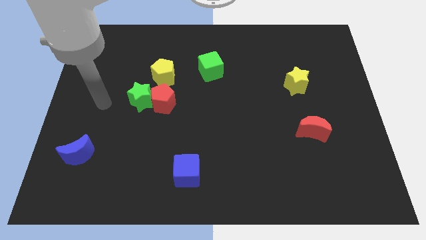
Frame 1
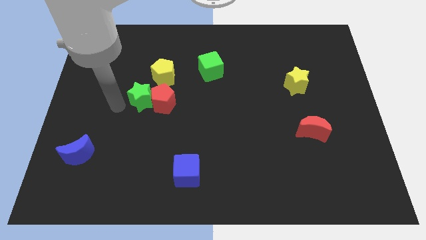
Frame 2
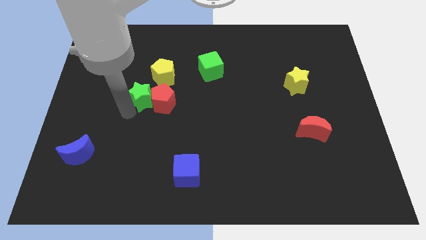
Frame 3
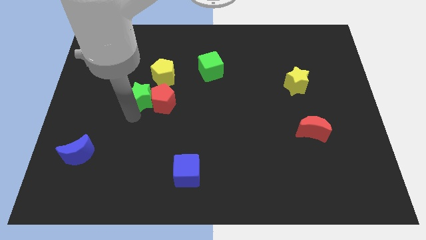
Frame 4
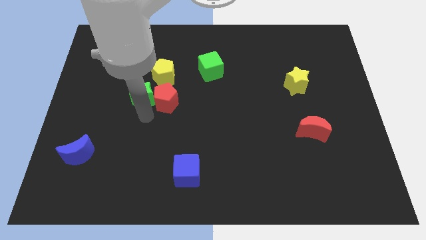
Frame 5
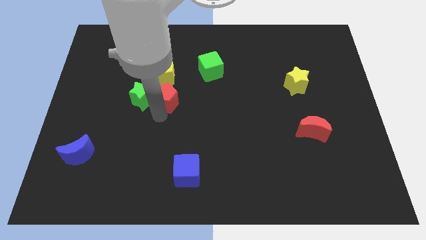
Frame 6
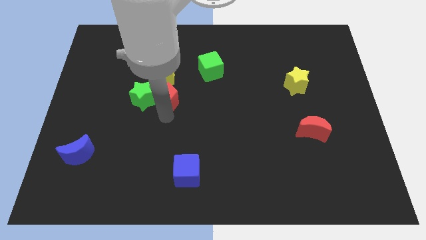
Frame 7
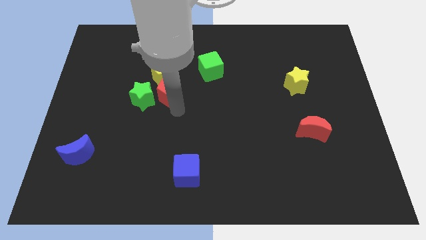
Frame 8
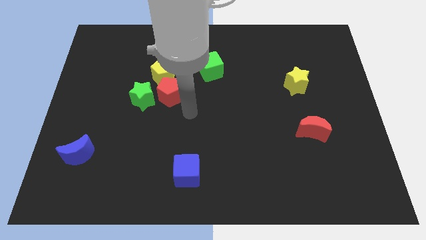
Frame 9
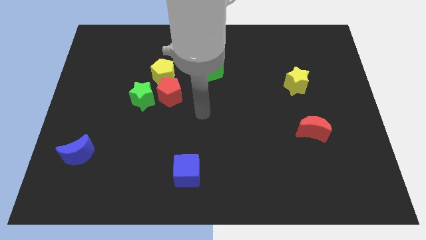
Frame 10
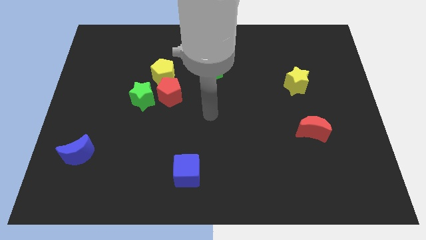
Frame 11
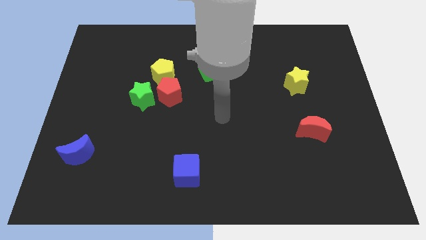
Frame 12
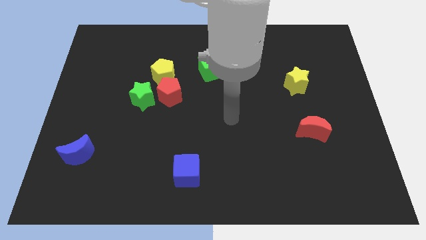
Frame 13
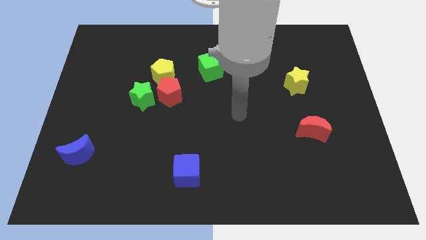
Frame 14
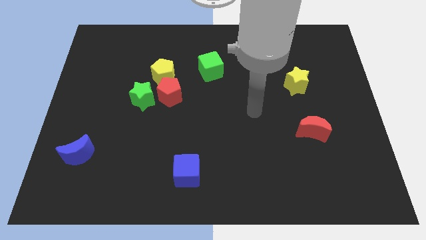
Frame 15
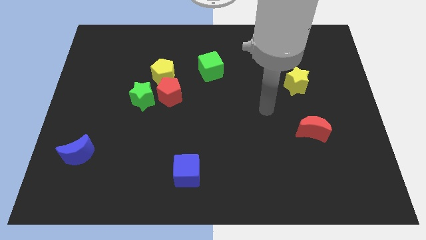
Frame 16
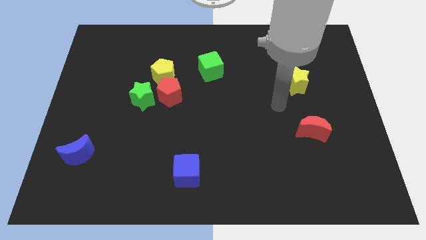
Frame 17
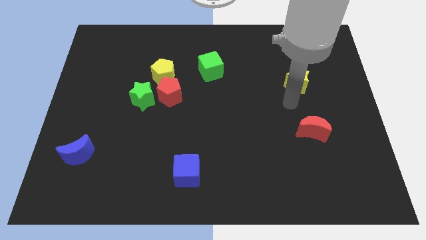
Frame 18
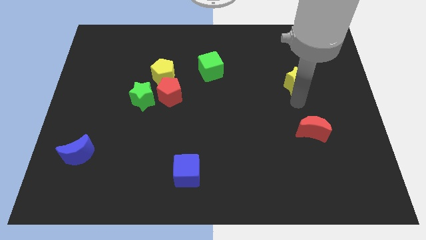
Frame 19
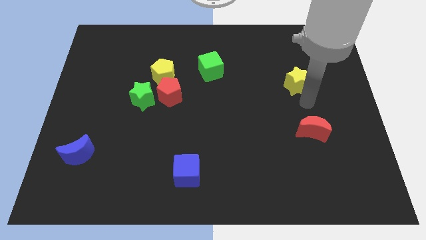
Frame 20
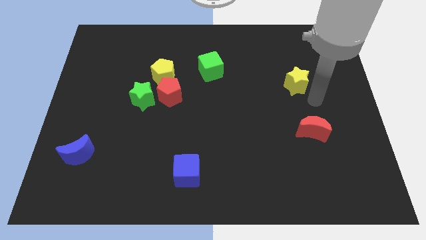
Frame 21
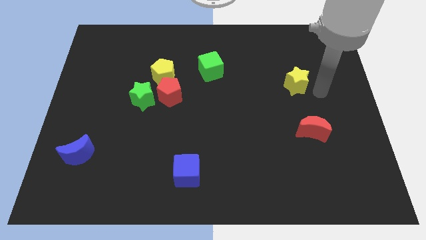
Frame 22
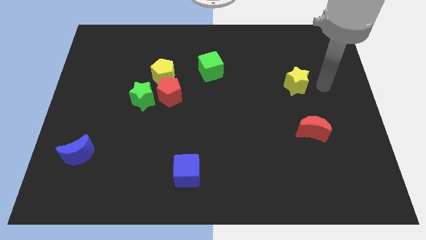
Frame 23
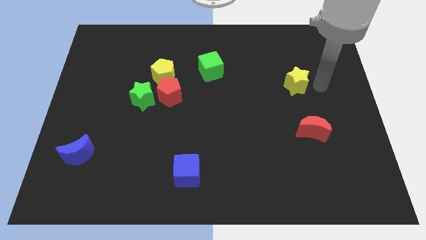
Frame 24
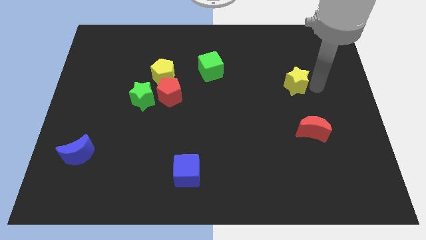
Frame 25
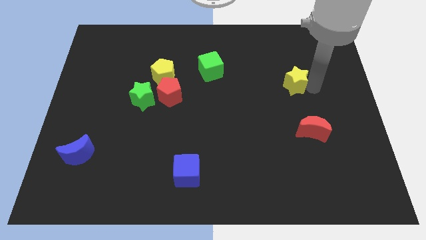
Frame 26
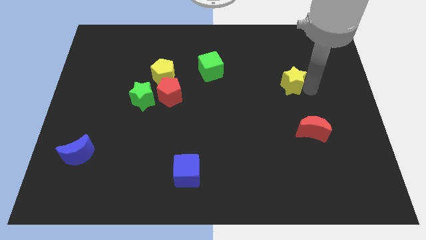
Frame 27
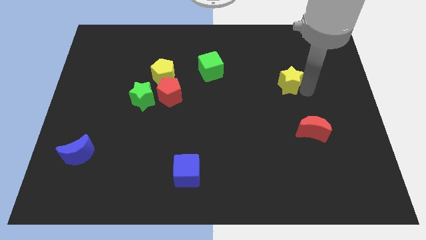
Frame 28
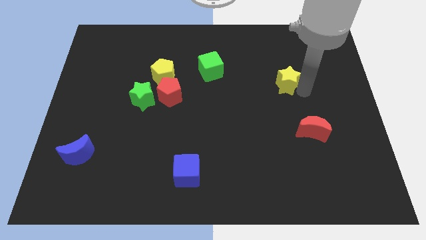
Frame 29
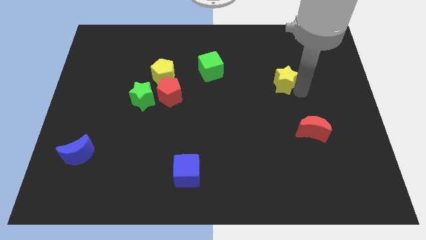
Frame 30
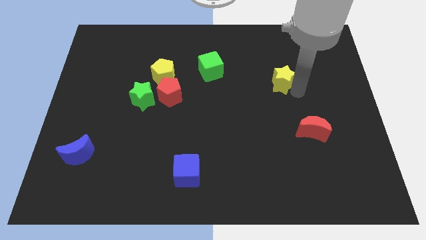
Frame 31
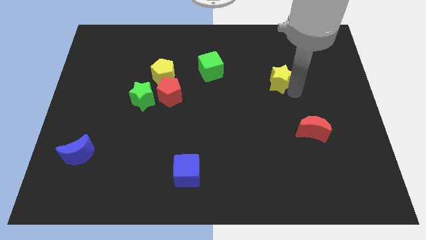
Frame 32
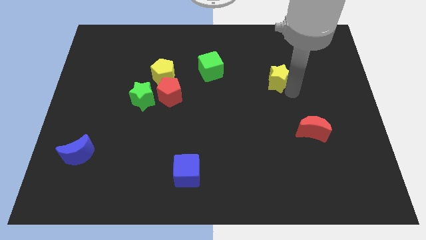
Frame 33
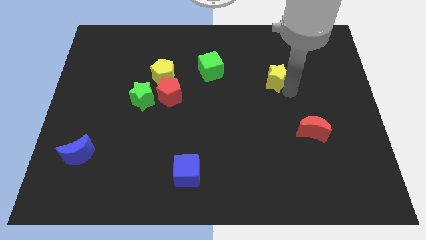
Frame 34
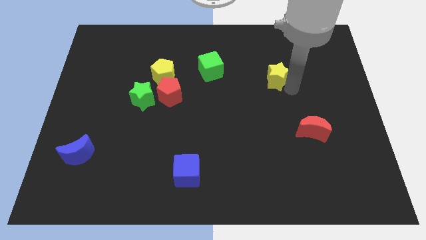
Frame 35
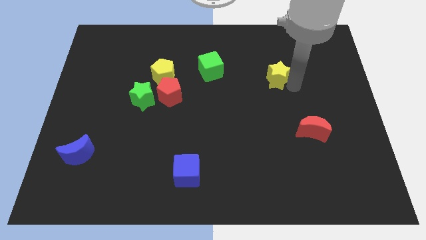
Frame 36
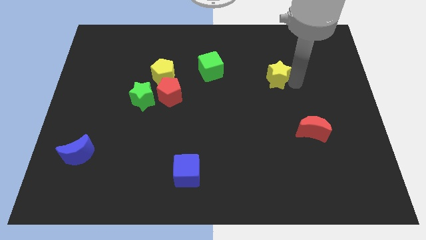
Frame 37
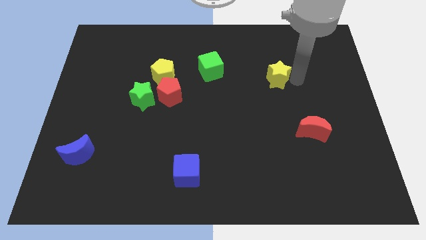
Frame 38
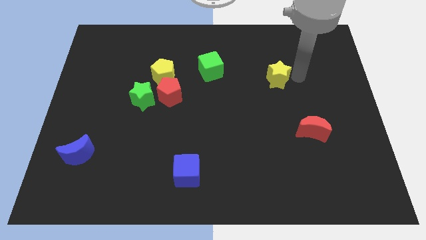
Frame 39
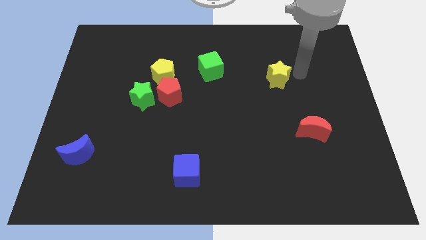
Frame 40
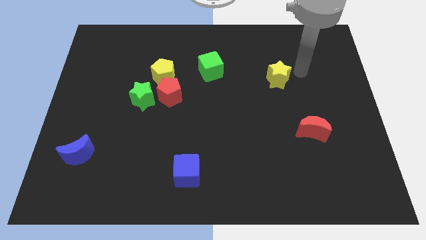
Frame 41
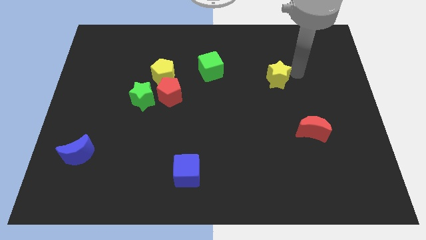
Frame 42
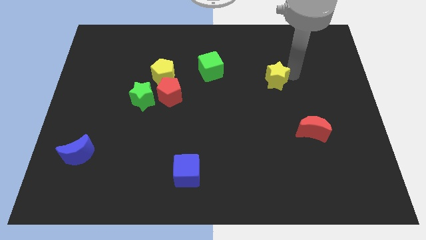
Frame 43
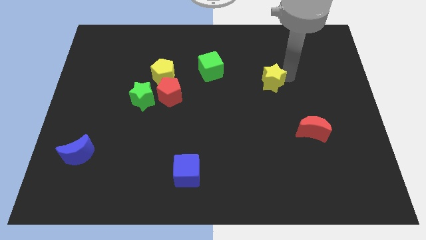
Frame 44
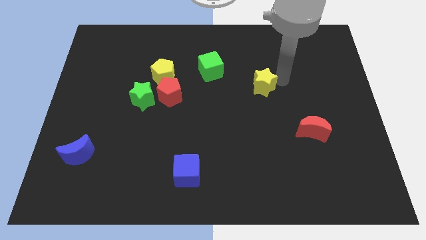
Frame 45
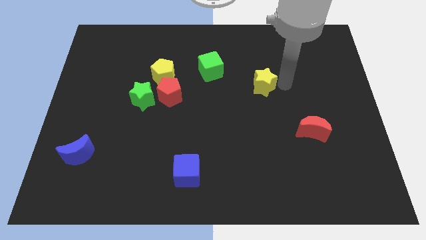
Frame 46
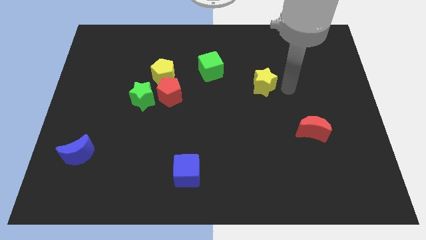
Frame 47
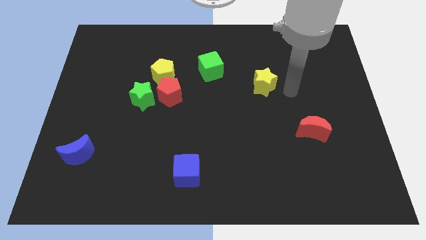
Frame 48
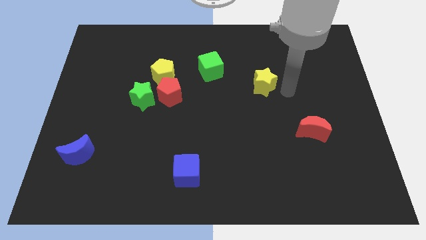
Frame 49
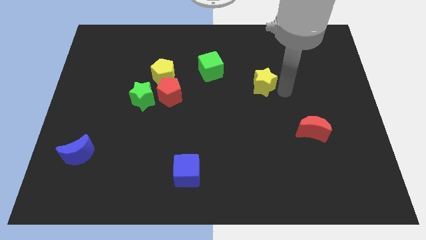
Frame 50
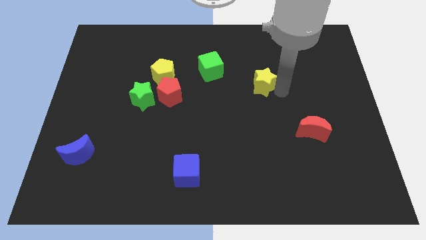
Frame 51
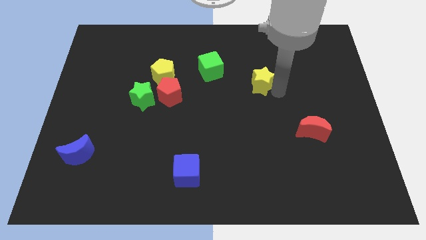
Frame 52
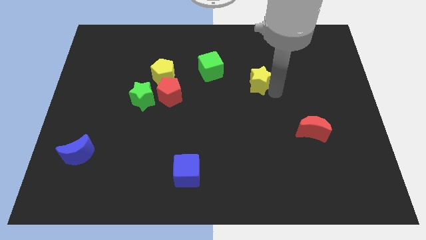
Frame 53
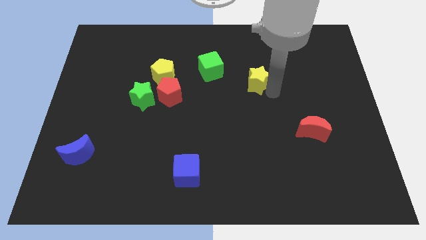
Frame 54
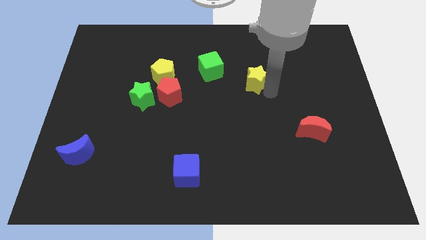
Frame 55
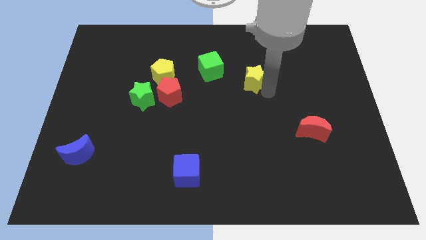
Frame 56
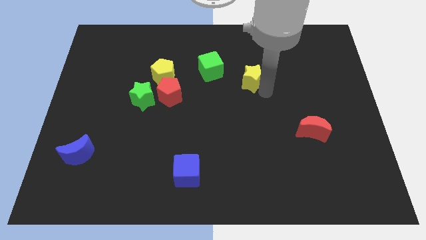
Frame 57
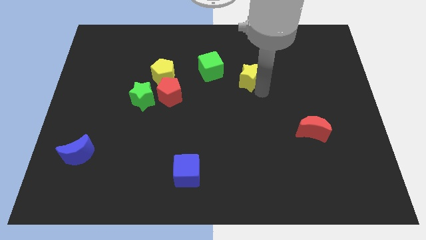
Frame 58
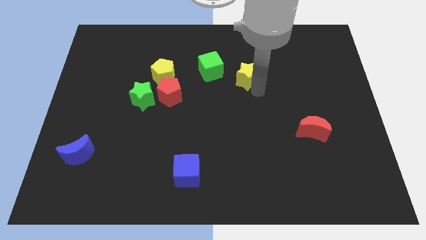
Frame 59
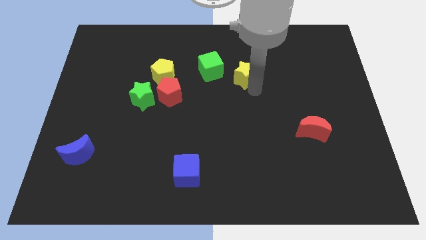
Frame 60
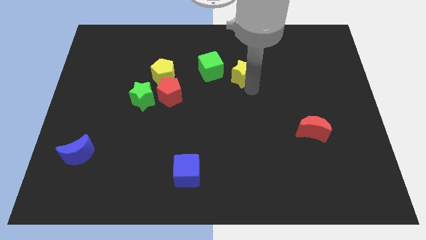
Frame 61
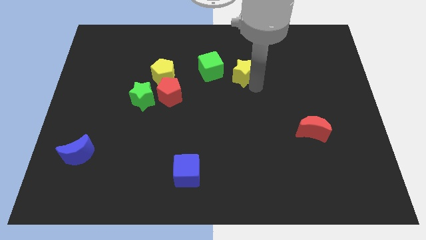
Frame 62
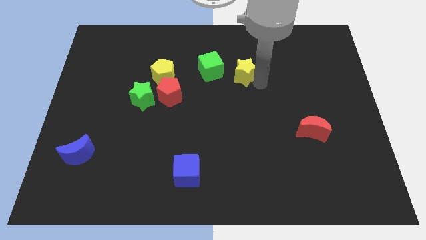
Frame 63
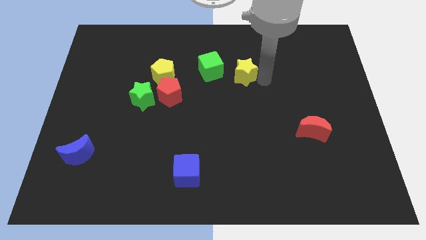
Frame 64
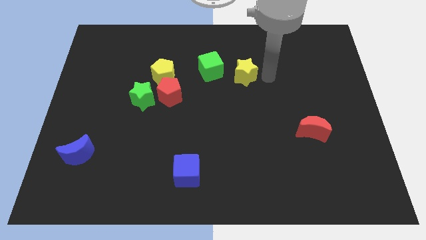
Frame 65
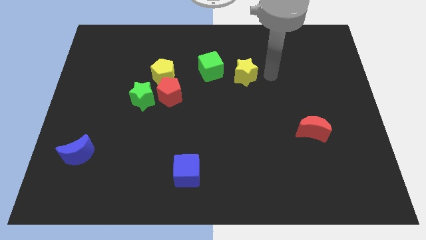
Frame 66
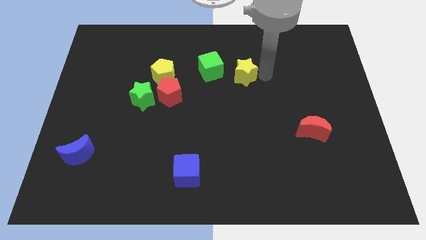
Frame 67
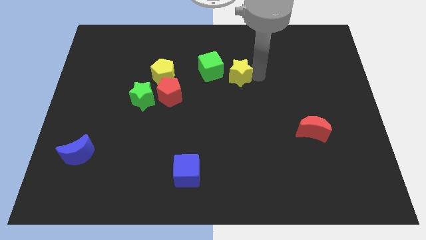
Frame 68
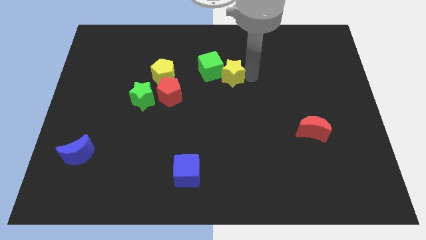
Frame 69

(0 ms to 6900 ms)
slide the yellow star towards the green cube
